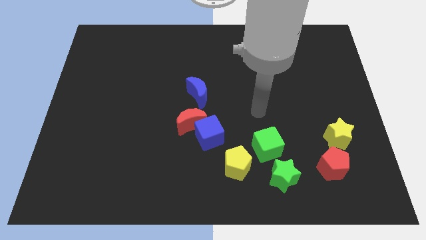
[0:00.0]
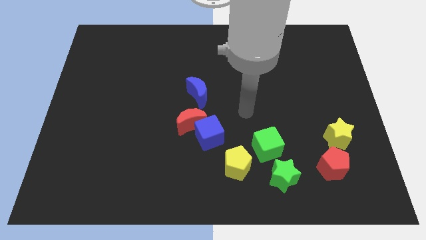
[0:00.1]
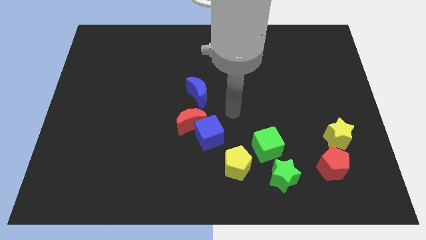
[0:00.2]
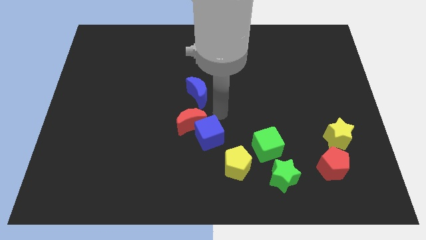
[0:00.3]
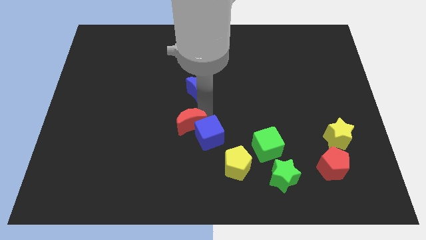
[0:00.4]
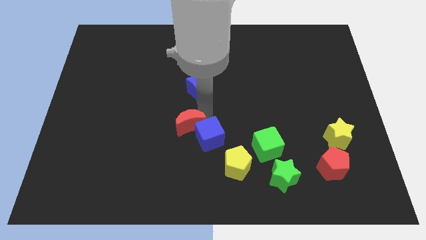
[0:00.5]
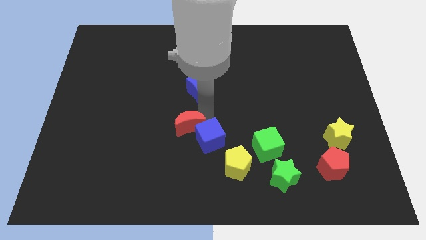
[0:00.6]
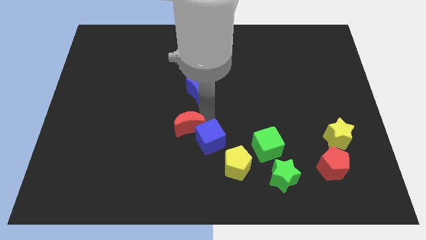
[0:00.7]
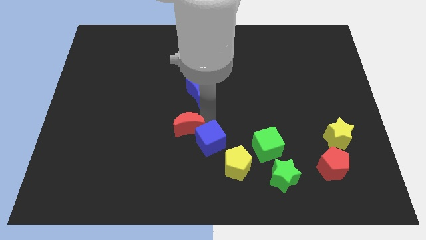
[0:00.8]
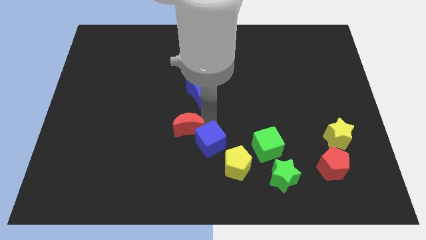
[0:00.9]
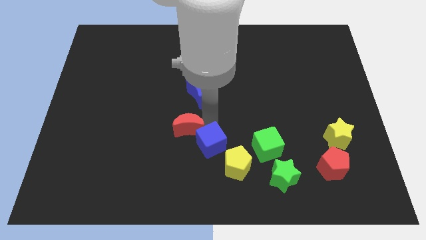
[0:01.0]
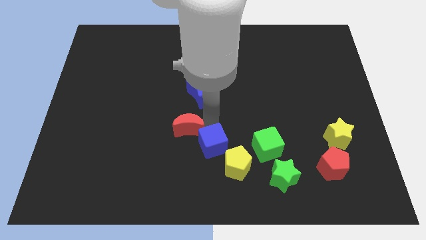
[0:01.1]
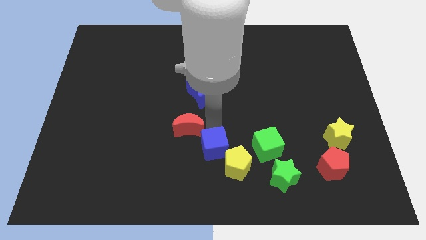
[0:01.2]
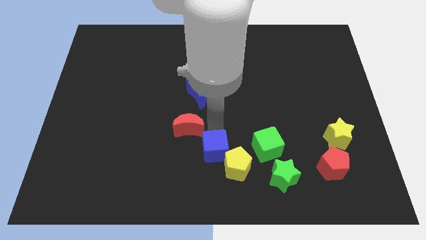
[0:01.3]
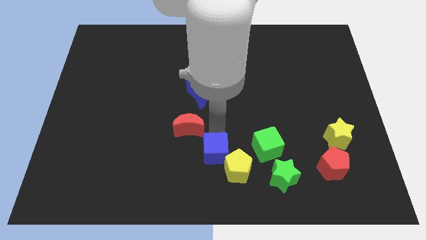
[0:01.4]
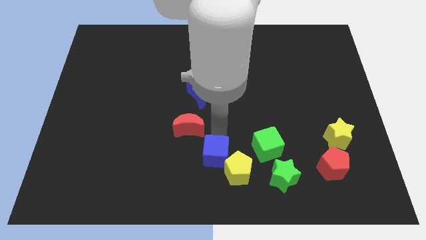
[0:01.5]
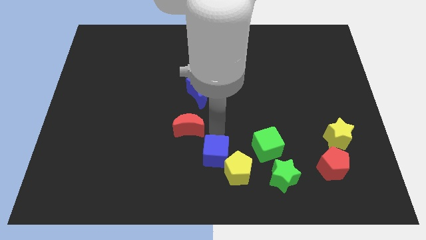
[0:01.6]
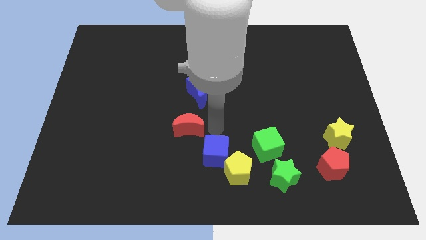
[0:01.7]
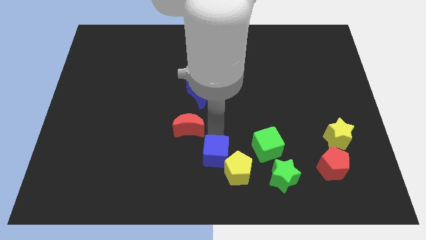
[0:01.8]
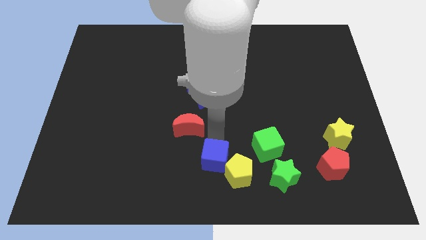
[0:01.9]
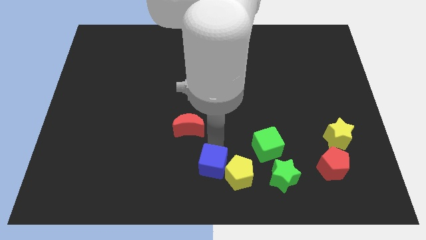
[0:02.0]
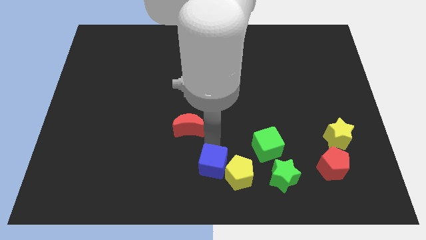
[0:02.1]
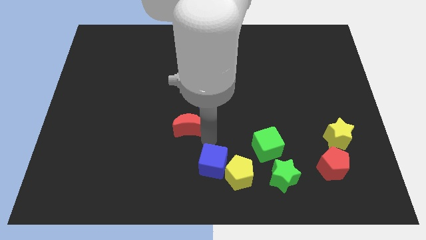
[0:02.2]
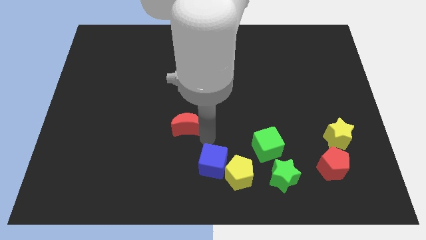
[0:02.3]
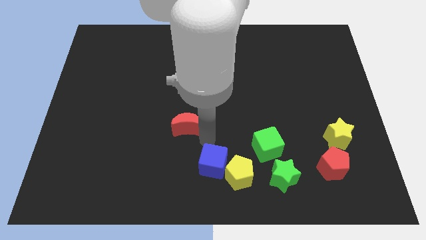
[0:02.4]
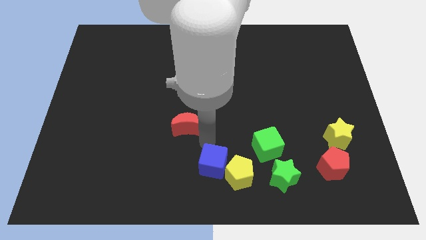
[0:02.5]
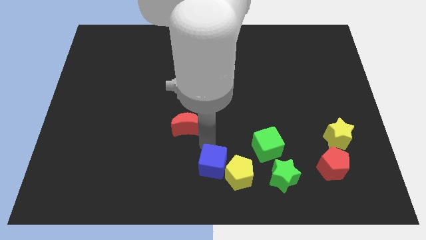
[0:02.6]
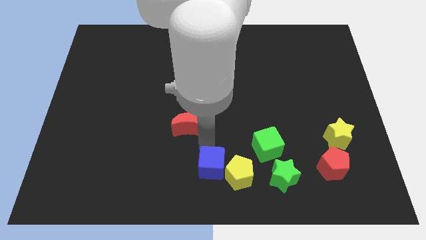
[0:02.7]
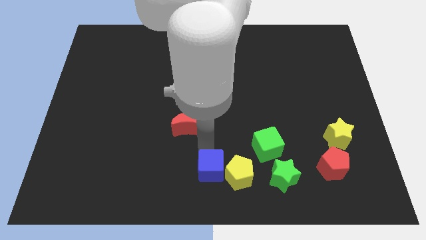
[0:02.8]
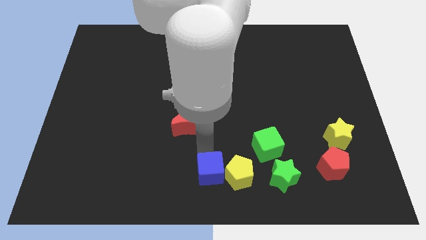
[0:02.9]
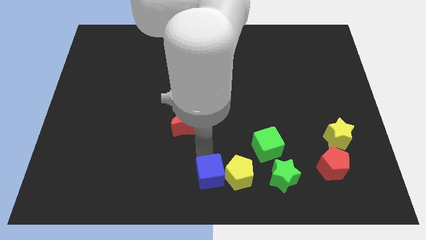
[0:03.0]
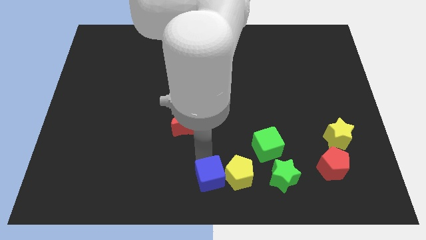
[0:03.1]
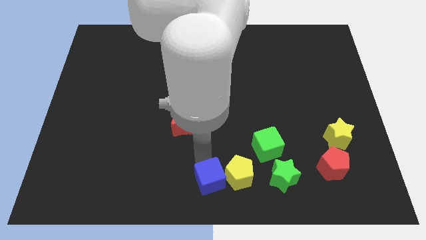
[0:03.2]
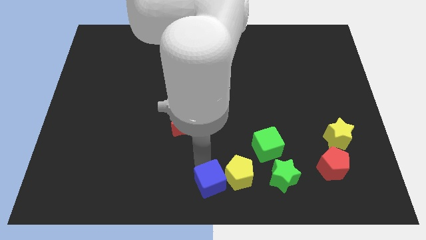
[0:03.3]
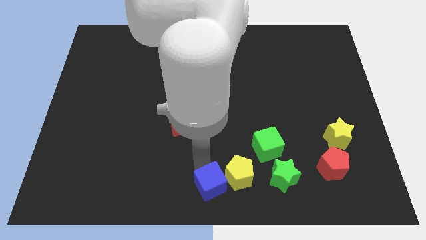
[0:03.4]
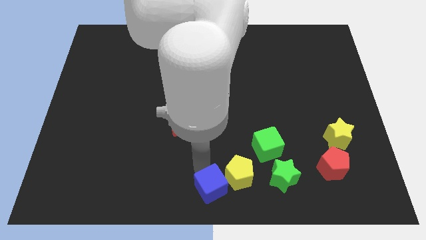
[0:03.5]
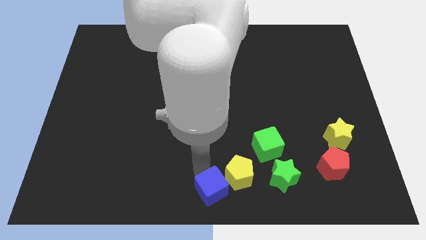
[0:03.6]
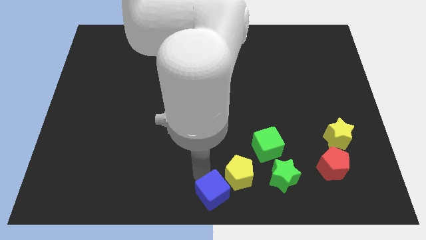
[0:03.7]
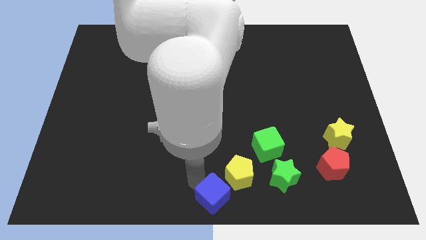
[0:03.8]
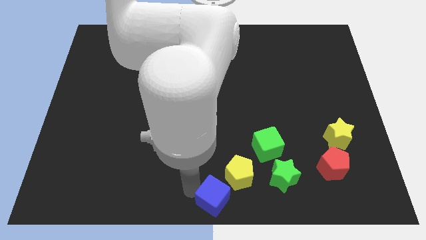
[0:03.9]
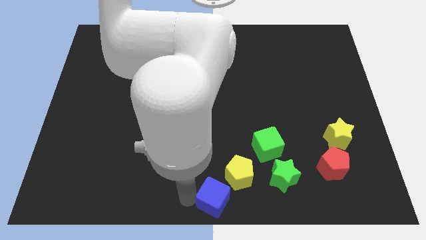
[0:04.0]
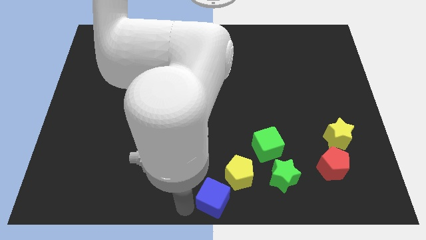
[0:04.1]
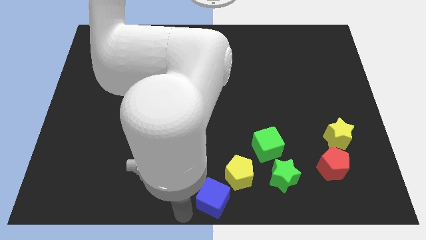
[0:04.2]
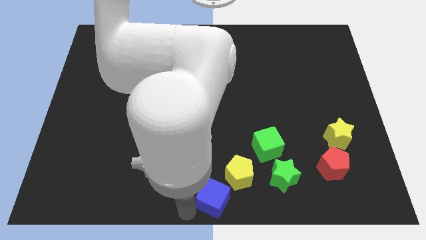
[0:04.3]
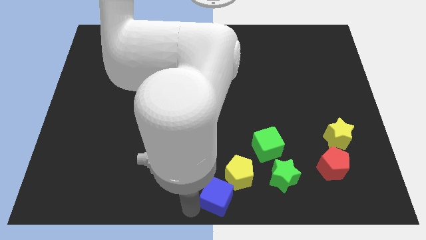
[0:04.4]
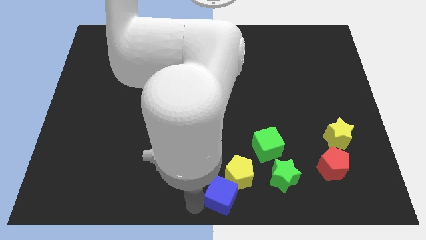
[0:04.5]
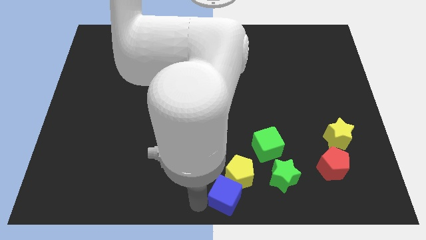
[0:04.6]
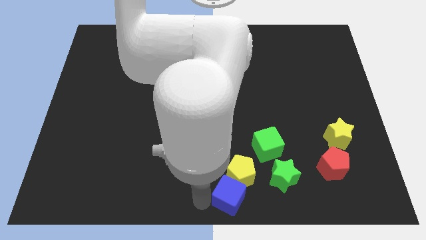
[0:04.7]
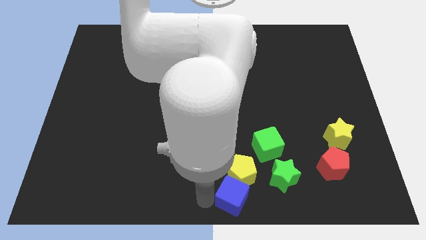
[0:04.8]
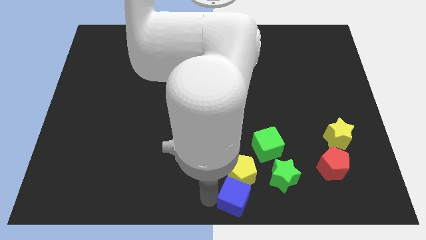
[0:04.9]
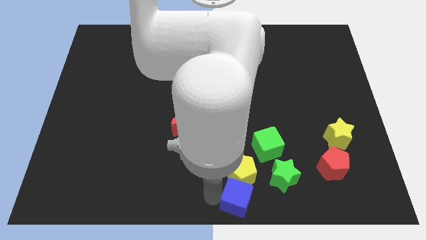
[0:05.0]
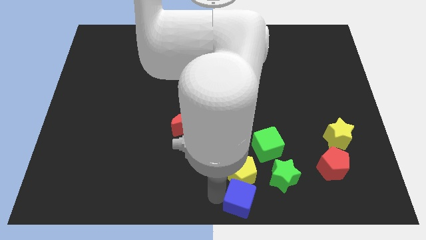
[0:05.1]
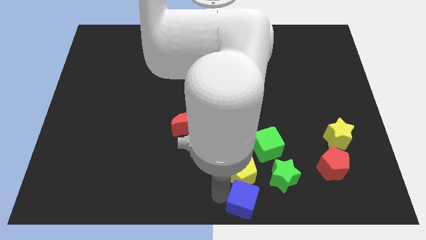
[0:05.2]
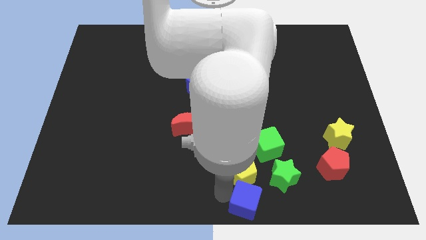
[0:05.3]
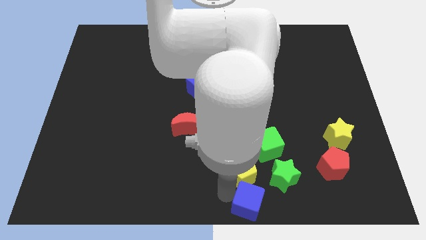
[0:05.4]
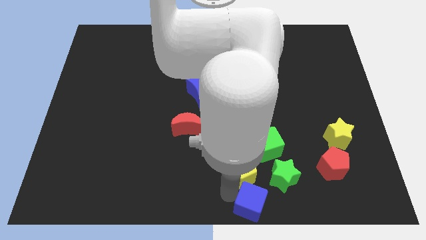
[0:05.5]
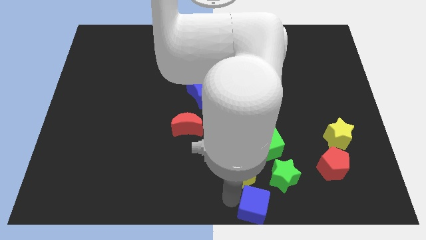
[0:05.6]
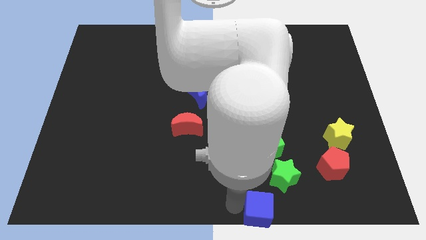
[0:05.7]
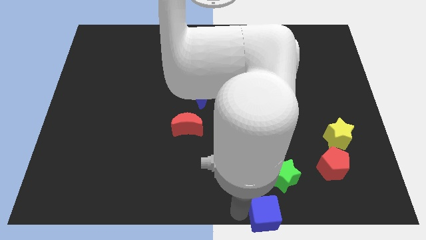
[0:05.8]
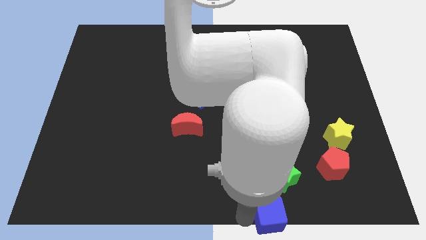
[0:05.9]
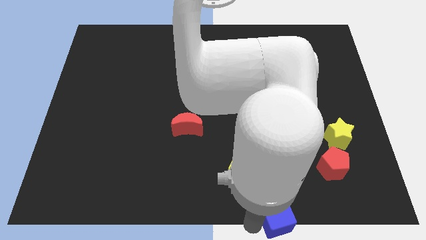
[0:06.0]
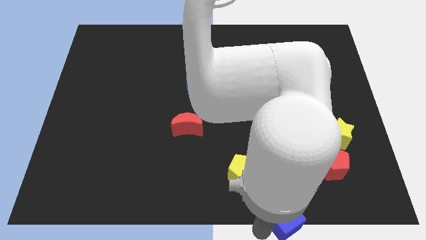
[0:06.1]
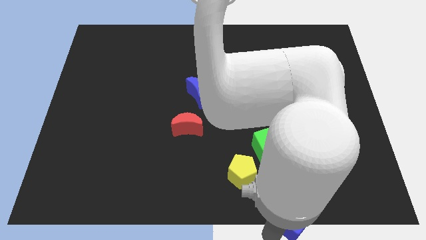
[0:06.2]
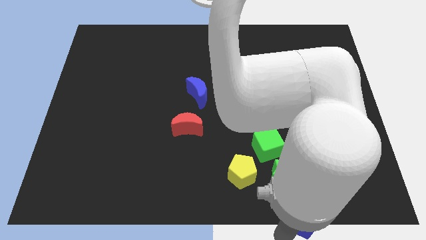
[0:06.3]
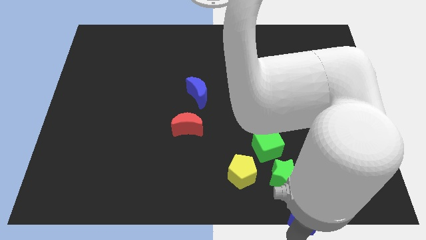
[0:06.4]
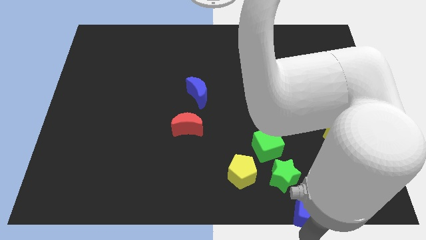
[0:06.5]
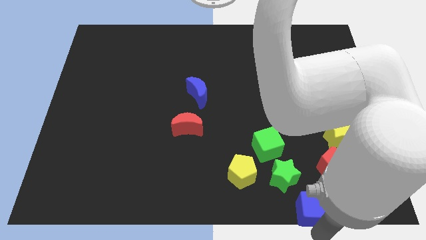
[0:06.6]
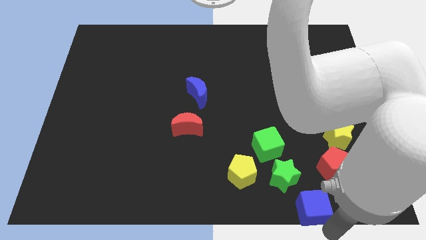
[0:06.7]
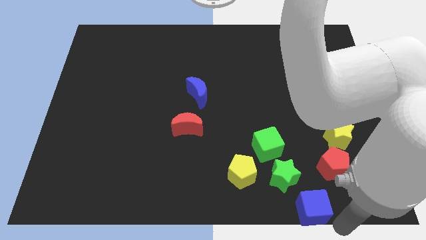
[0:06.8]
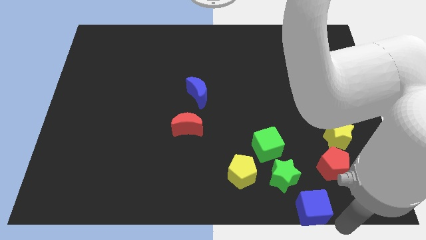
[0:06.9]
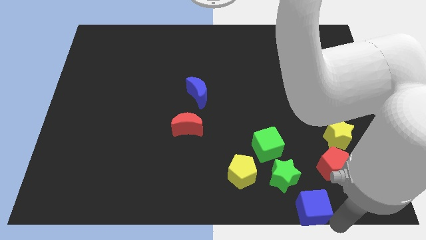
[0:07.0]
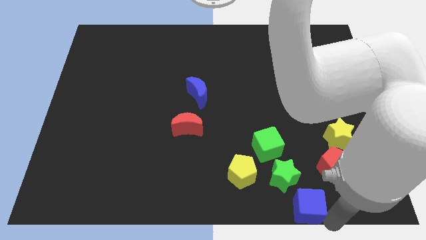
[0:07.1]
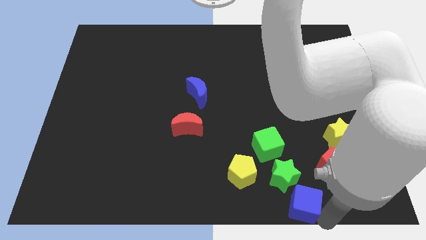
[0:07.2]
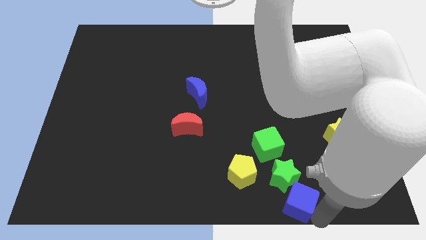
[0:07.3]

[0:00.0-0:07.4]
slide the blue cube towards the green star
